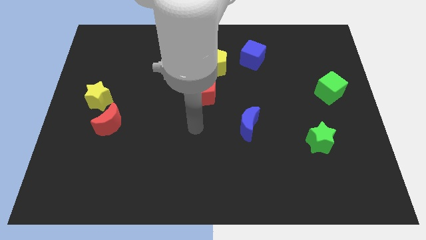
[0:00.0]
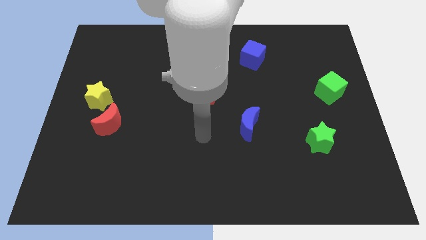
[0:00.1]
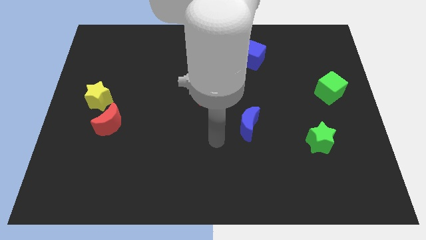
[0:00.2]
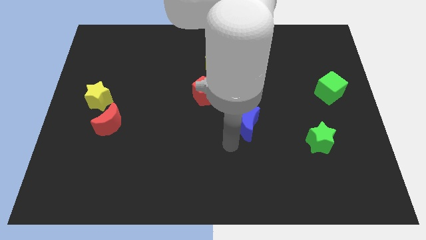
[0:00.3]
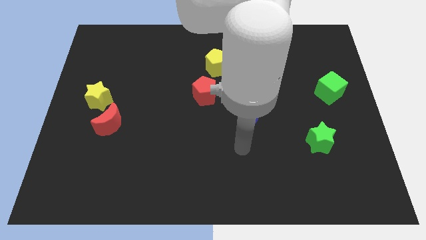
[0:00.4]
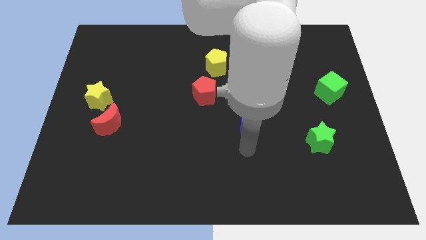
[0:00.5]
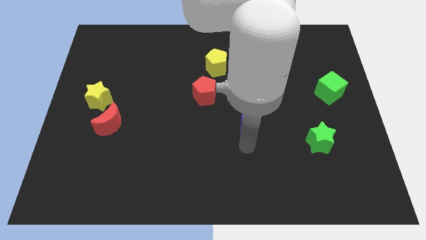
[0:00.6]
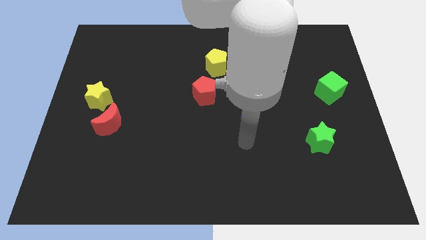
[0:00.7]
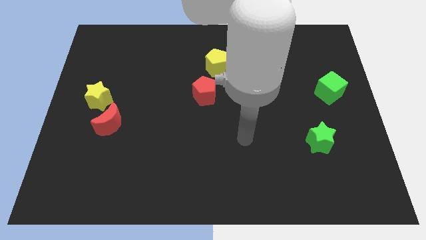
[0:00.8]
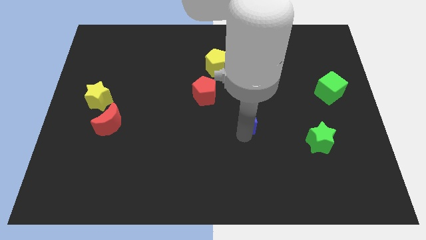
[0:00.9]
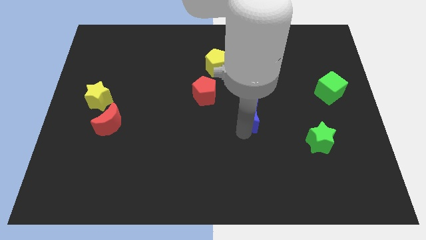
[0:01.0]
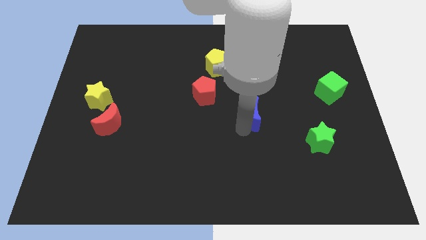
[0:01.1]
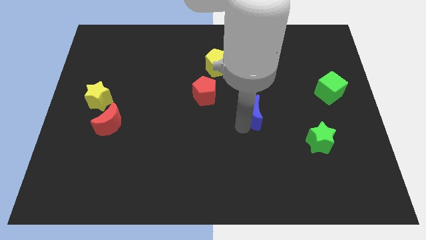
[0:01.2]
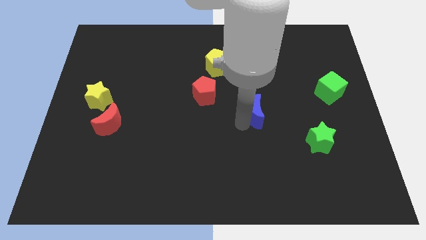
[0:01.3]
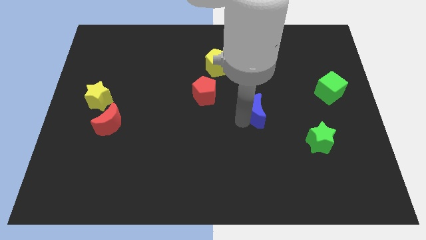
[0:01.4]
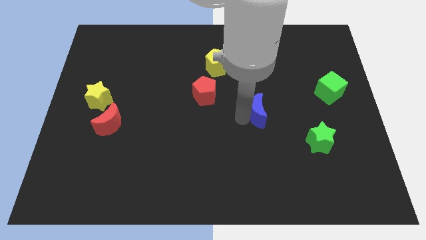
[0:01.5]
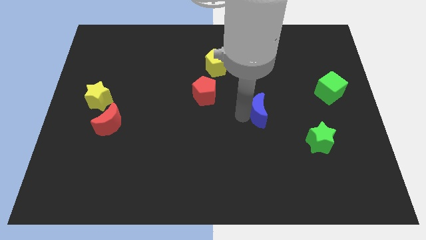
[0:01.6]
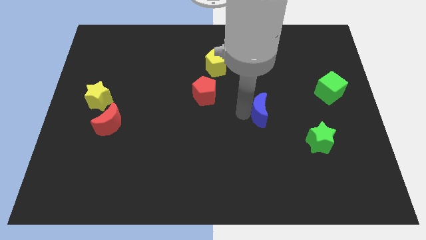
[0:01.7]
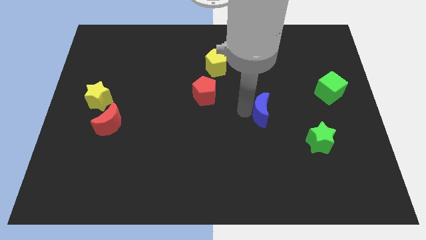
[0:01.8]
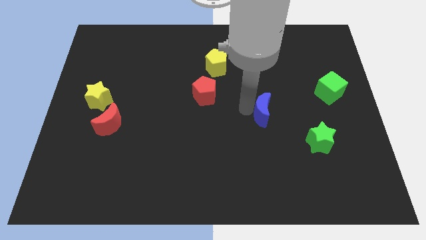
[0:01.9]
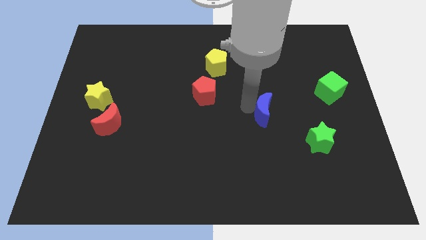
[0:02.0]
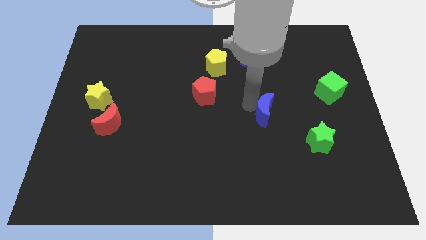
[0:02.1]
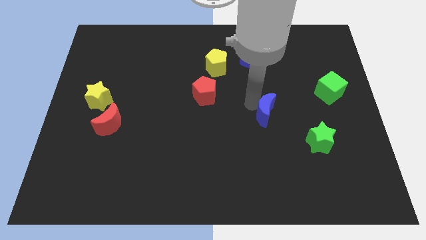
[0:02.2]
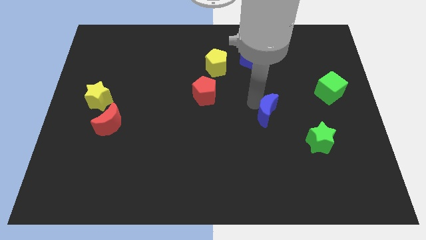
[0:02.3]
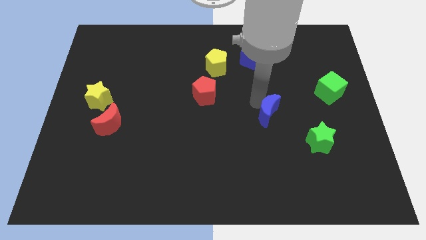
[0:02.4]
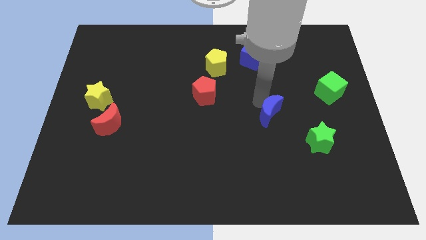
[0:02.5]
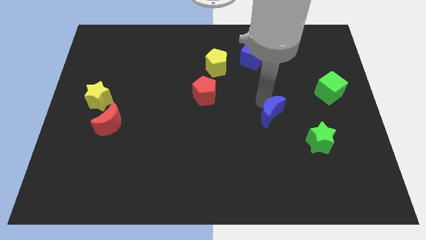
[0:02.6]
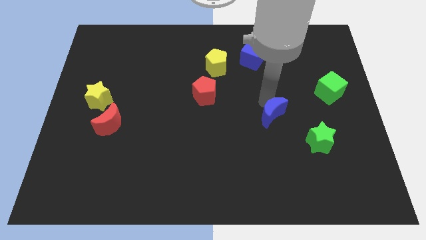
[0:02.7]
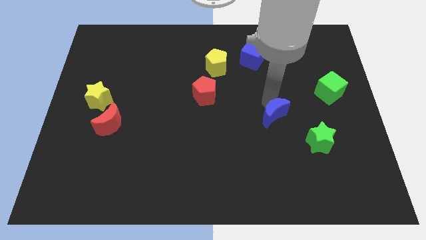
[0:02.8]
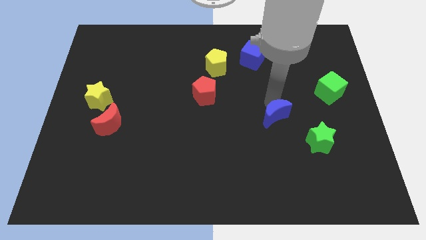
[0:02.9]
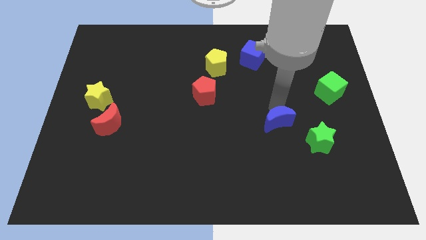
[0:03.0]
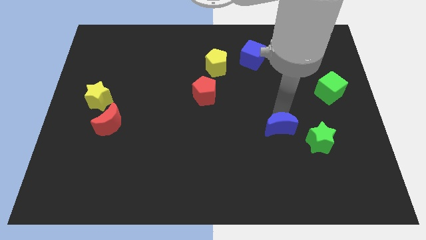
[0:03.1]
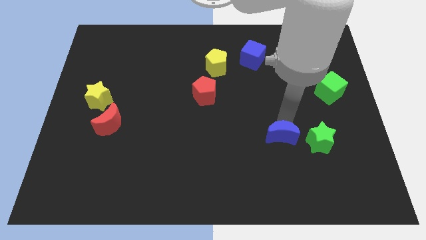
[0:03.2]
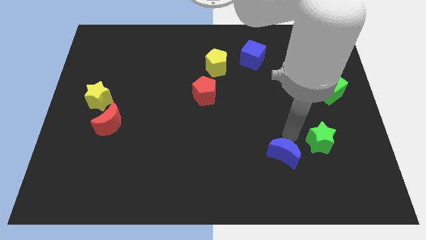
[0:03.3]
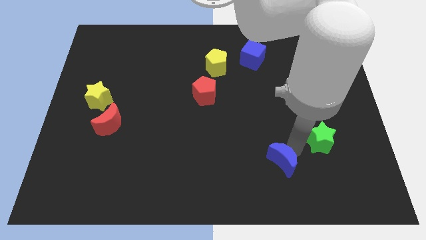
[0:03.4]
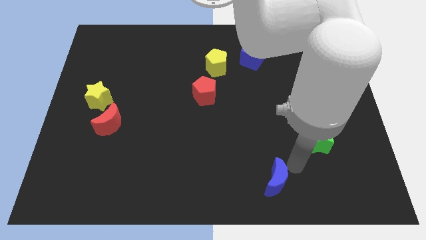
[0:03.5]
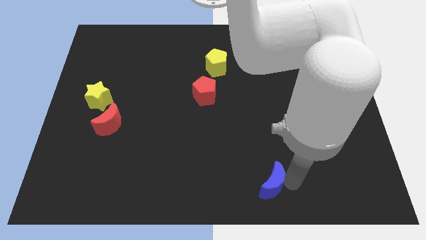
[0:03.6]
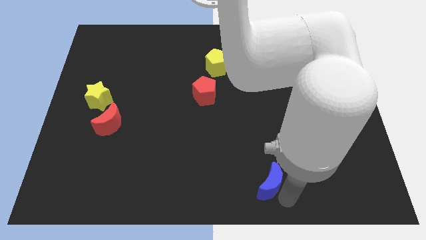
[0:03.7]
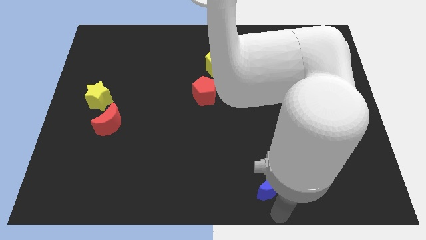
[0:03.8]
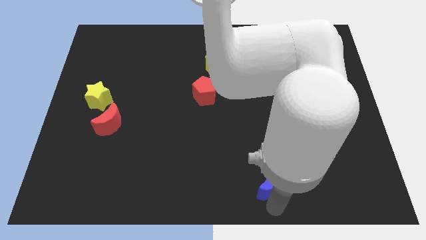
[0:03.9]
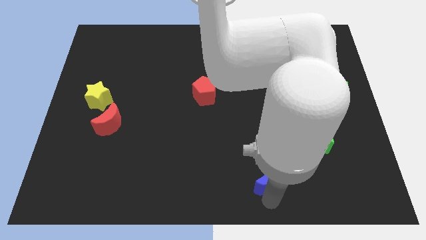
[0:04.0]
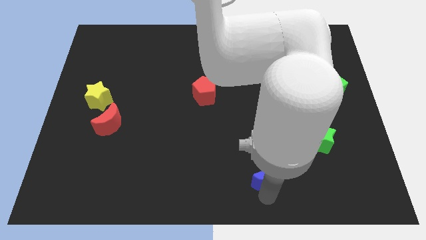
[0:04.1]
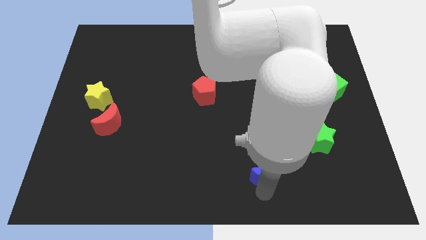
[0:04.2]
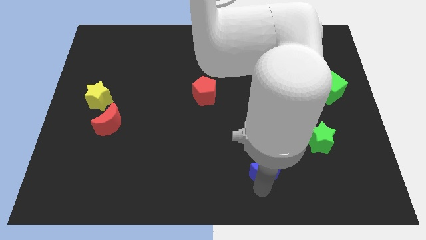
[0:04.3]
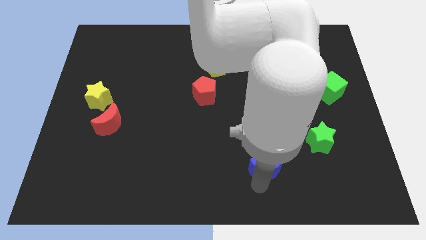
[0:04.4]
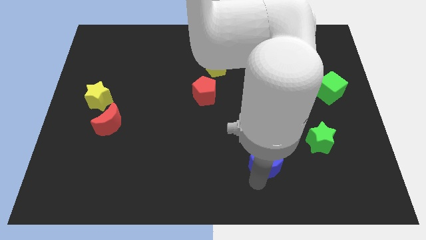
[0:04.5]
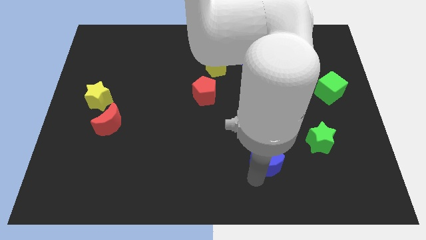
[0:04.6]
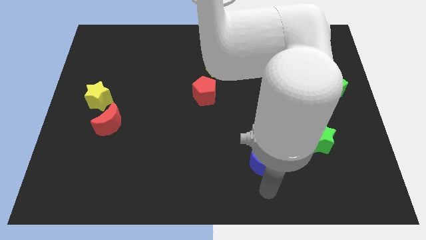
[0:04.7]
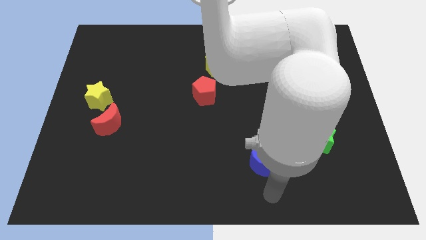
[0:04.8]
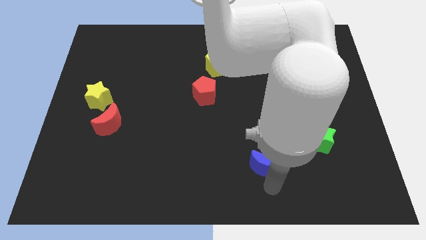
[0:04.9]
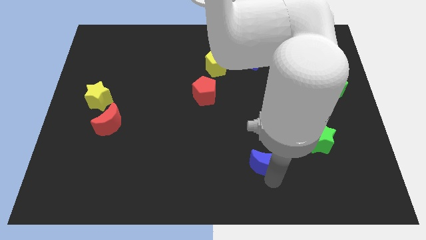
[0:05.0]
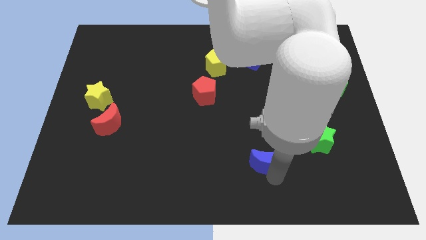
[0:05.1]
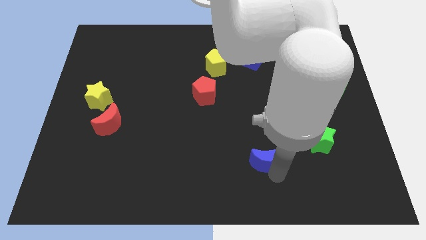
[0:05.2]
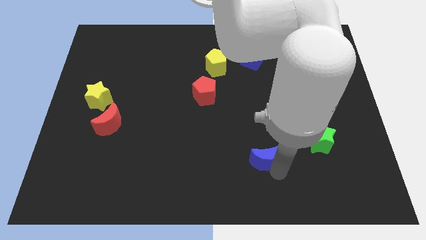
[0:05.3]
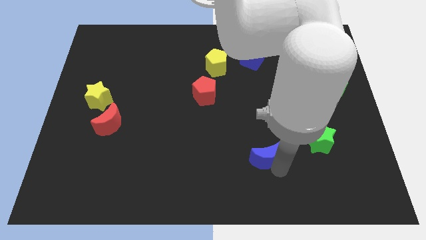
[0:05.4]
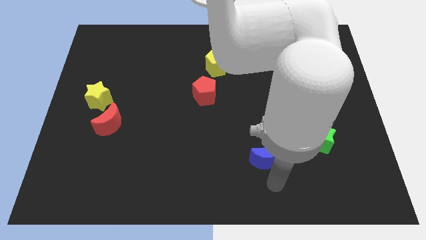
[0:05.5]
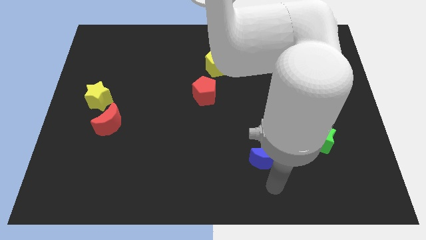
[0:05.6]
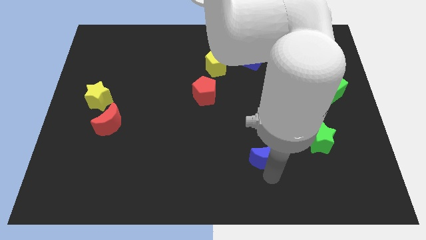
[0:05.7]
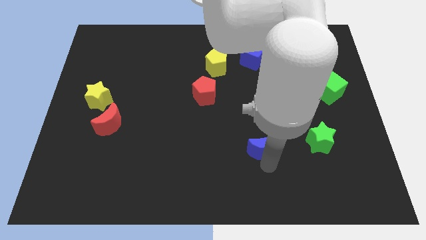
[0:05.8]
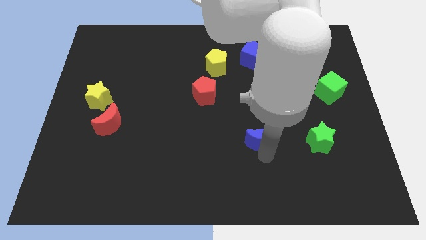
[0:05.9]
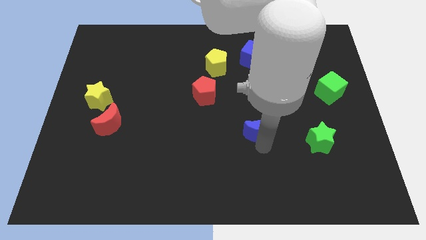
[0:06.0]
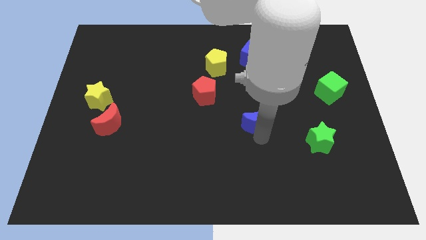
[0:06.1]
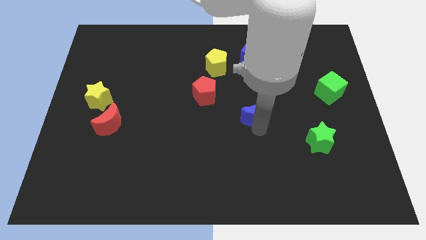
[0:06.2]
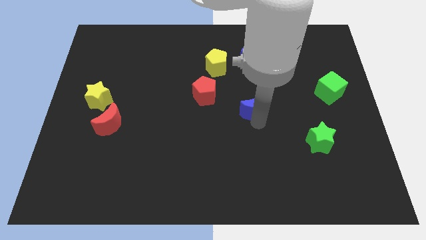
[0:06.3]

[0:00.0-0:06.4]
move the blue moon to the right of the red pentagon

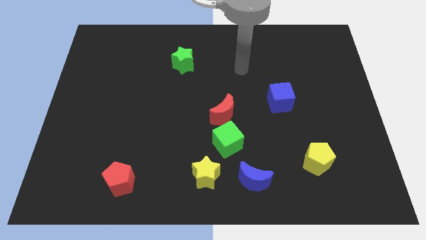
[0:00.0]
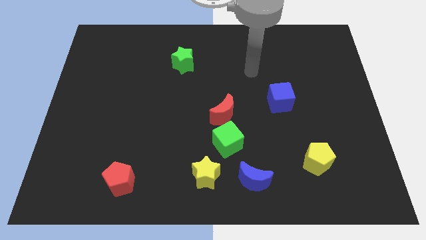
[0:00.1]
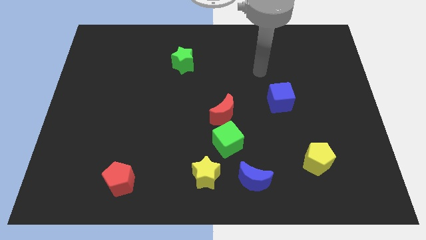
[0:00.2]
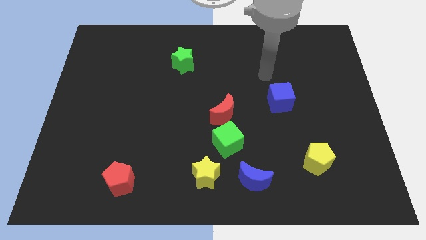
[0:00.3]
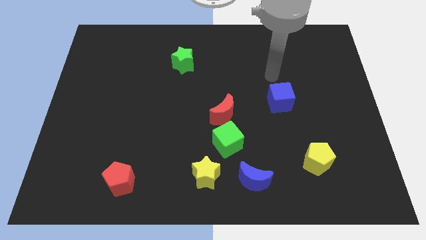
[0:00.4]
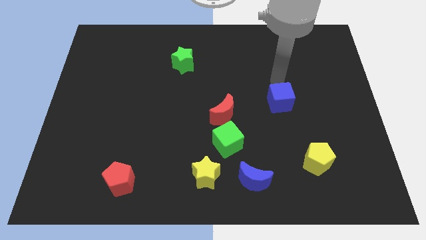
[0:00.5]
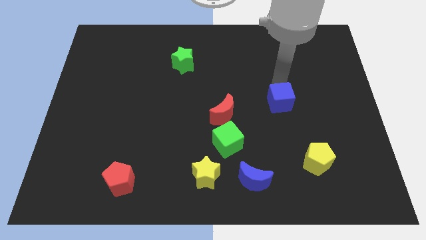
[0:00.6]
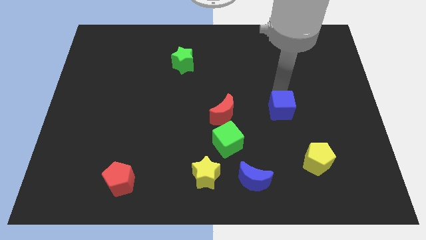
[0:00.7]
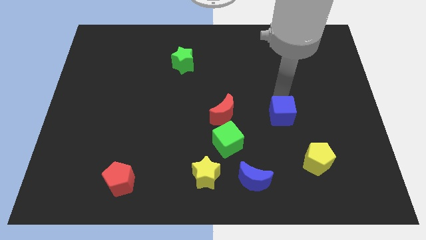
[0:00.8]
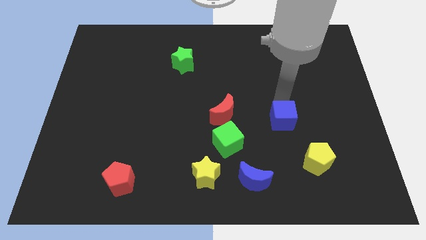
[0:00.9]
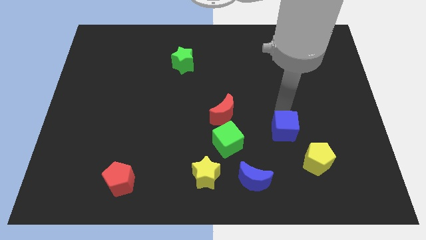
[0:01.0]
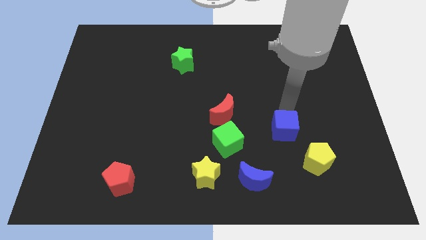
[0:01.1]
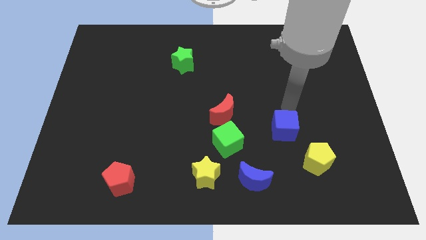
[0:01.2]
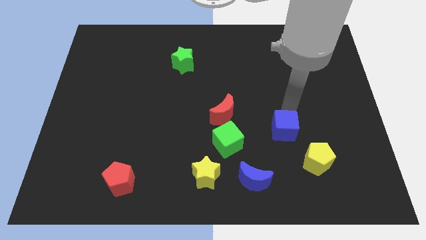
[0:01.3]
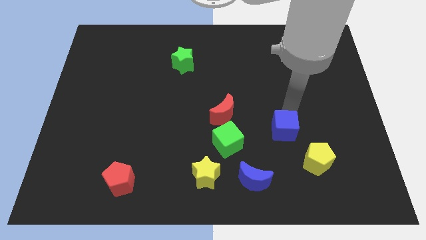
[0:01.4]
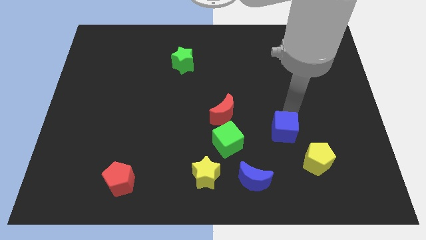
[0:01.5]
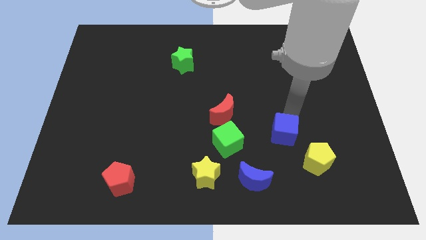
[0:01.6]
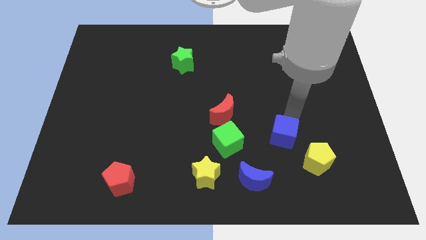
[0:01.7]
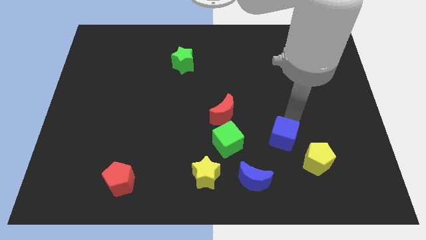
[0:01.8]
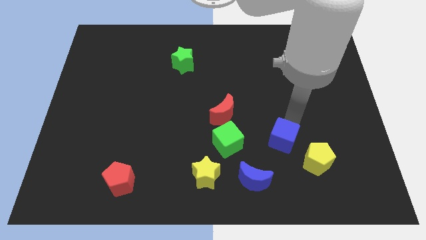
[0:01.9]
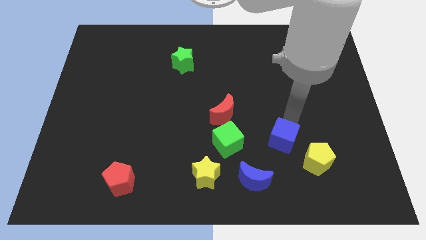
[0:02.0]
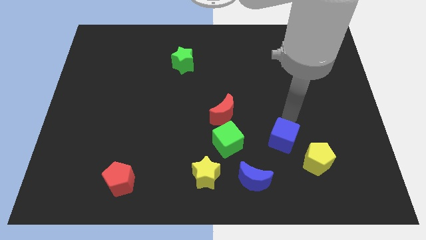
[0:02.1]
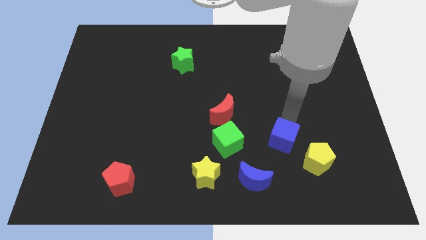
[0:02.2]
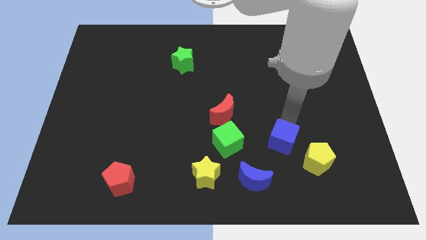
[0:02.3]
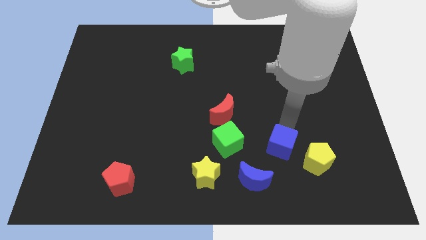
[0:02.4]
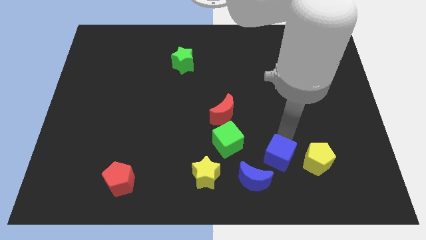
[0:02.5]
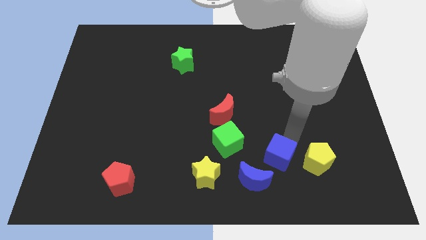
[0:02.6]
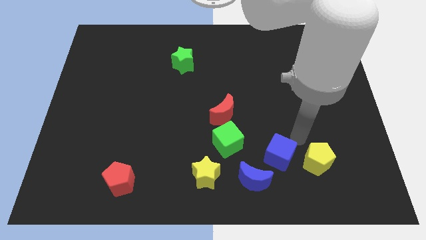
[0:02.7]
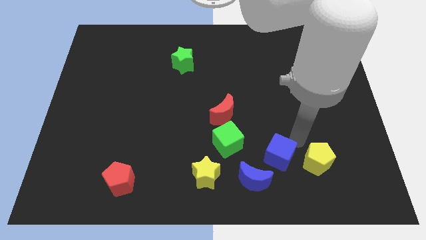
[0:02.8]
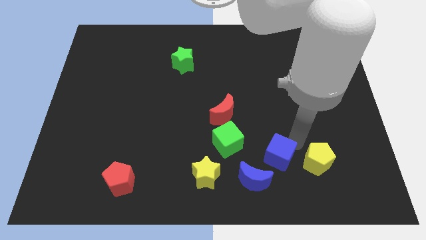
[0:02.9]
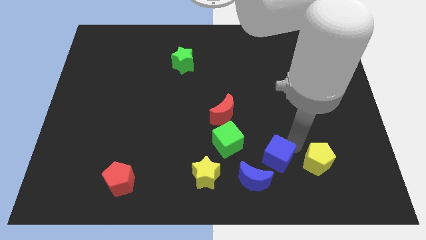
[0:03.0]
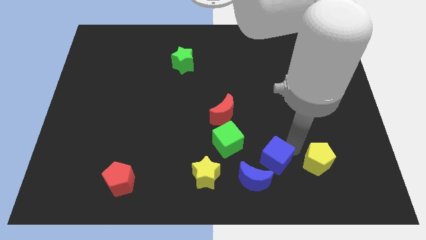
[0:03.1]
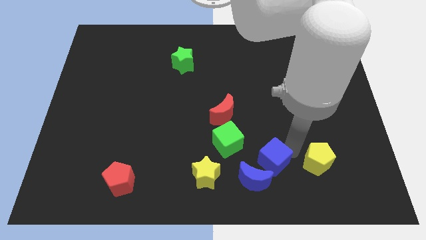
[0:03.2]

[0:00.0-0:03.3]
push the blue cube right of the yellow star
